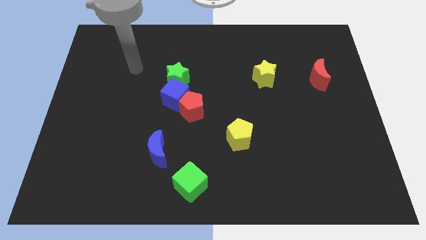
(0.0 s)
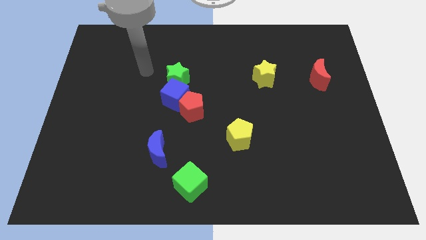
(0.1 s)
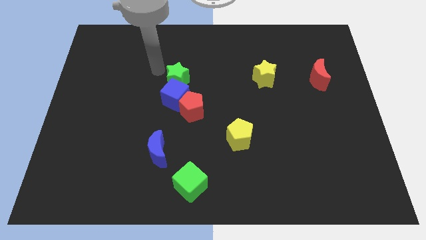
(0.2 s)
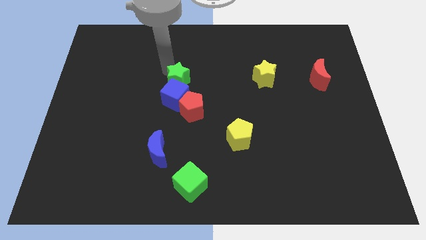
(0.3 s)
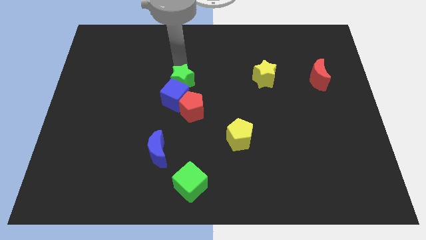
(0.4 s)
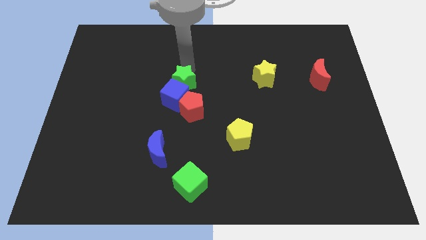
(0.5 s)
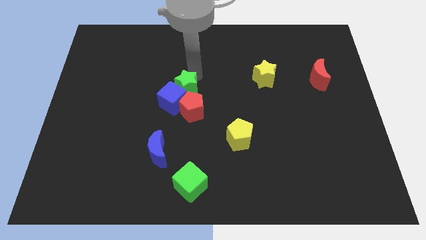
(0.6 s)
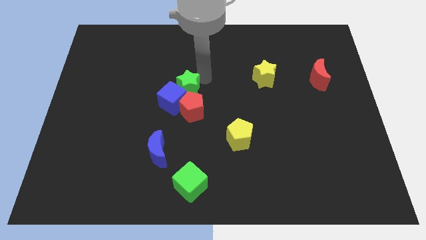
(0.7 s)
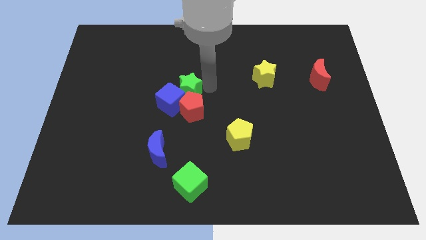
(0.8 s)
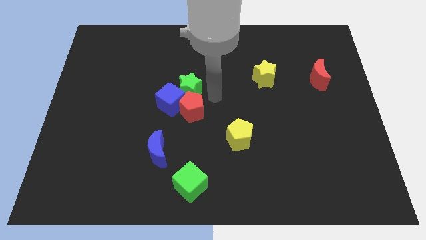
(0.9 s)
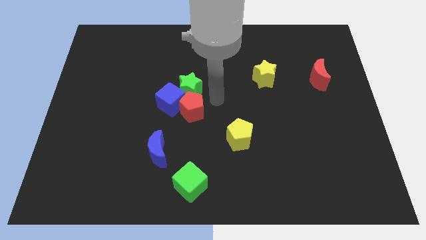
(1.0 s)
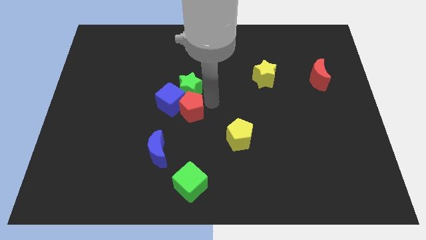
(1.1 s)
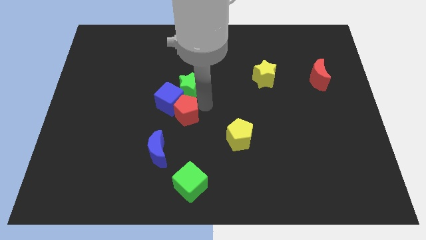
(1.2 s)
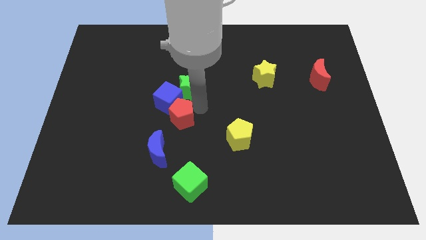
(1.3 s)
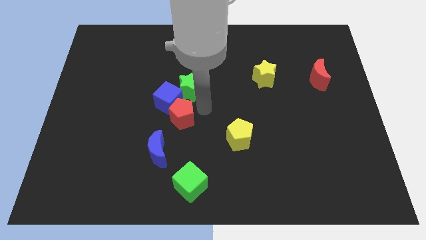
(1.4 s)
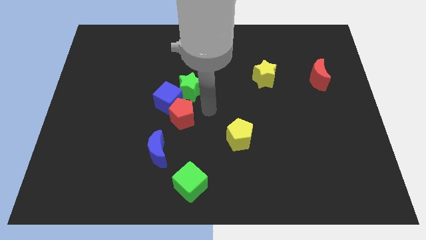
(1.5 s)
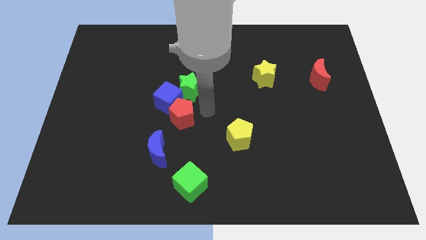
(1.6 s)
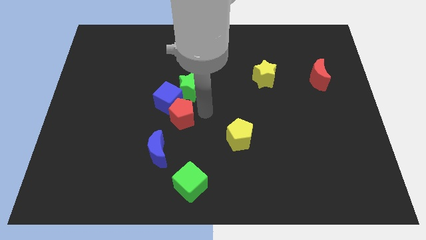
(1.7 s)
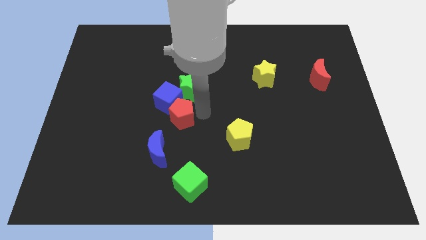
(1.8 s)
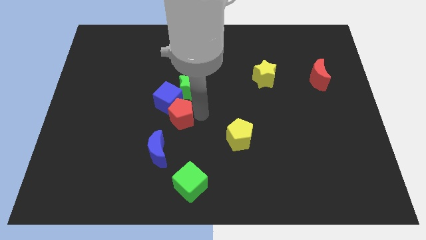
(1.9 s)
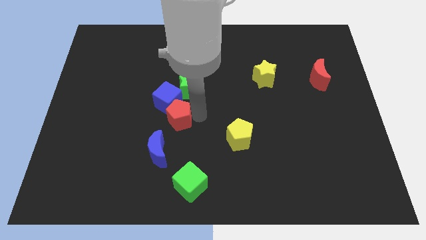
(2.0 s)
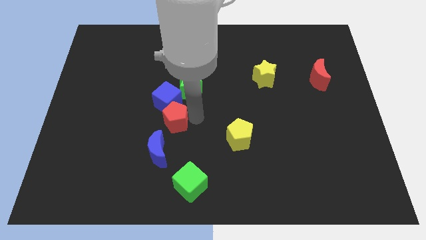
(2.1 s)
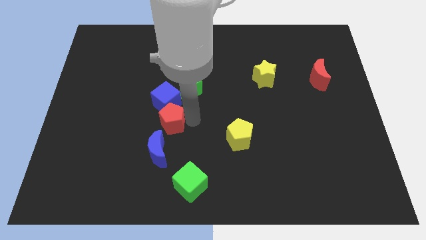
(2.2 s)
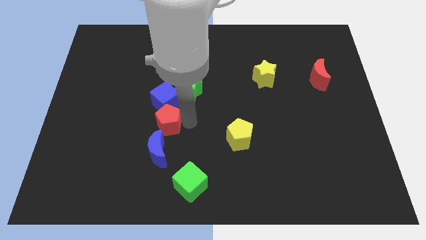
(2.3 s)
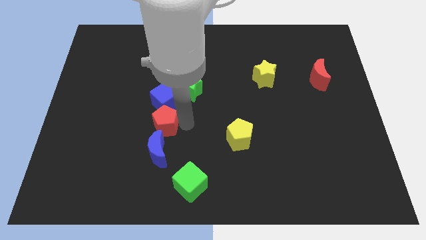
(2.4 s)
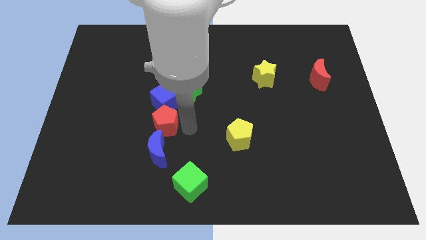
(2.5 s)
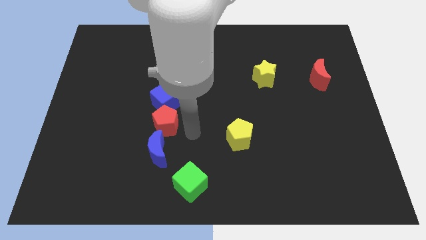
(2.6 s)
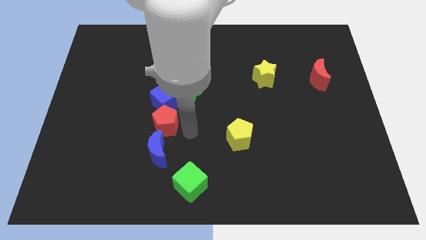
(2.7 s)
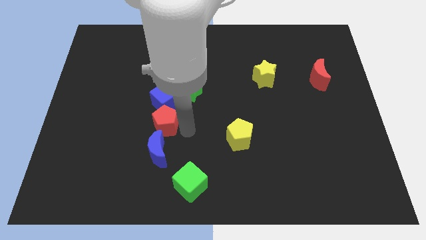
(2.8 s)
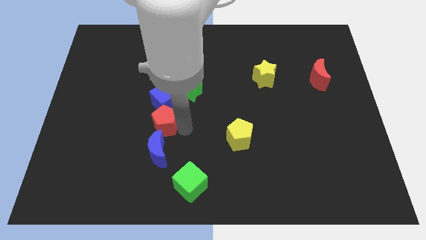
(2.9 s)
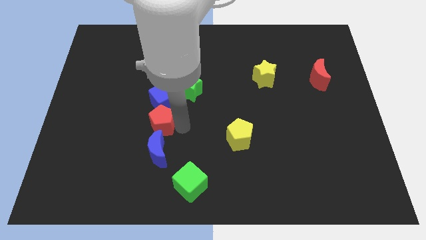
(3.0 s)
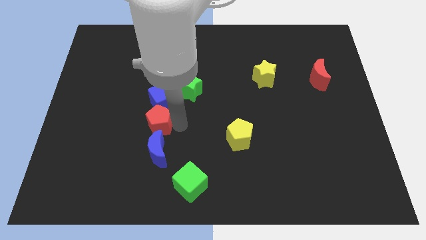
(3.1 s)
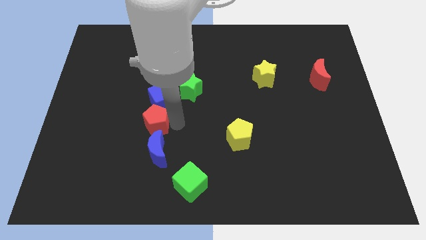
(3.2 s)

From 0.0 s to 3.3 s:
slide the red pentagon to the left somewhat

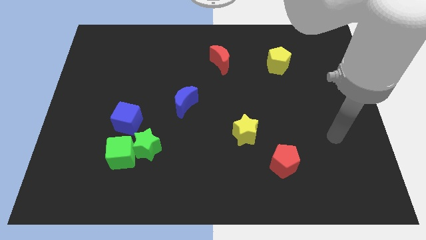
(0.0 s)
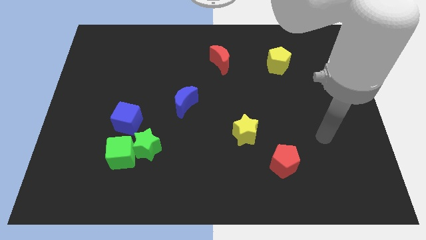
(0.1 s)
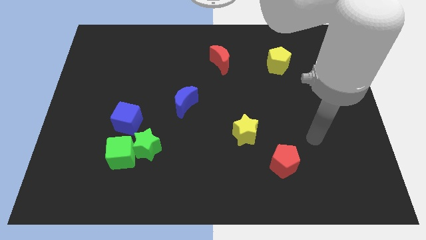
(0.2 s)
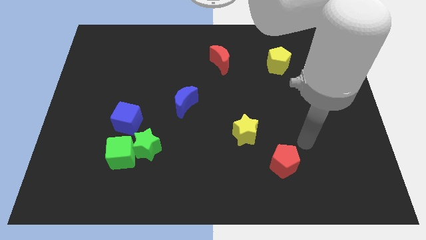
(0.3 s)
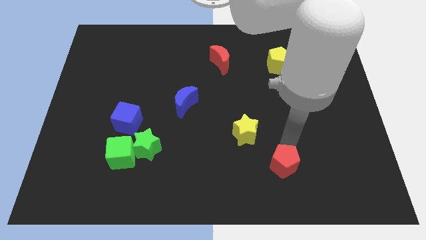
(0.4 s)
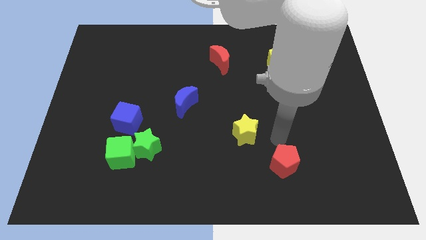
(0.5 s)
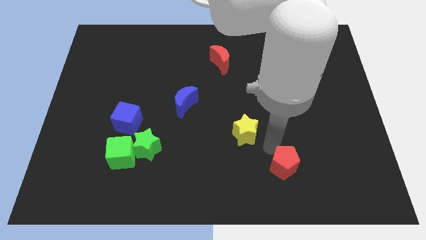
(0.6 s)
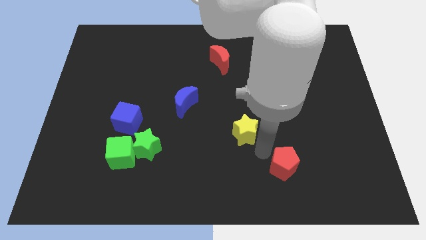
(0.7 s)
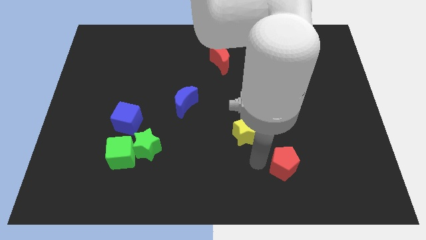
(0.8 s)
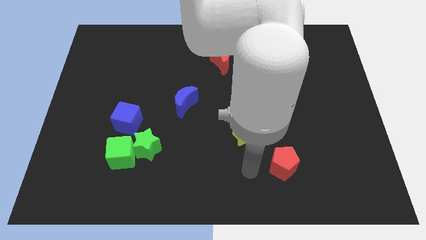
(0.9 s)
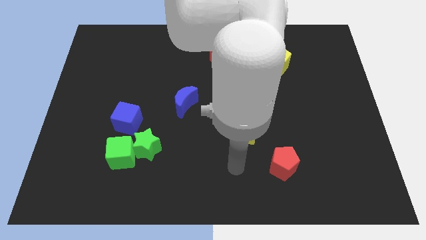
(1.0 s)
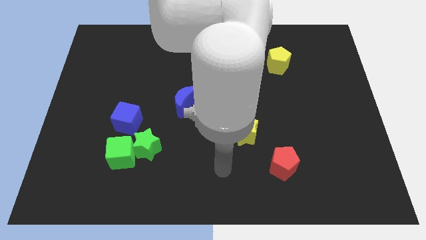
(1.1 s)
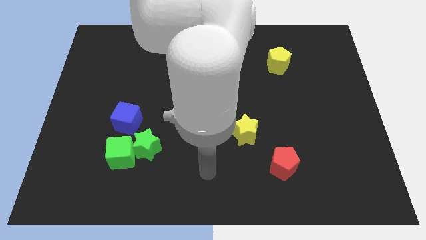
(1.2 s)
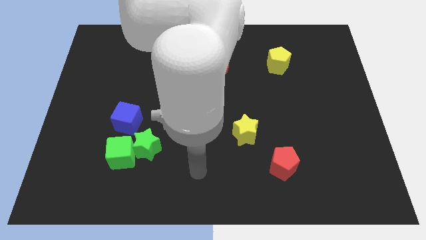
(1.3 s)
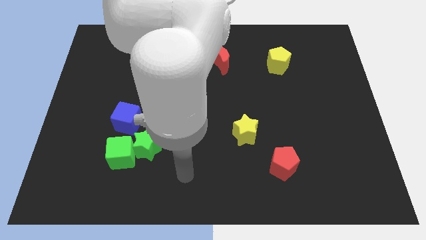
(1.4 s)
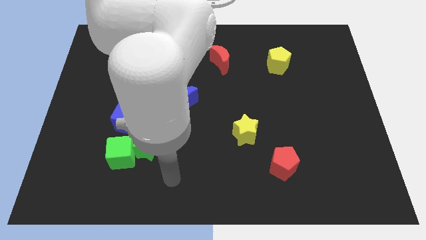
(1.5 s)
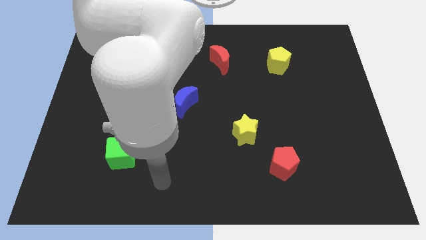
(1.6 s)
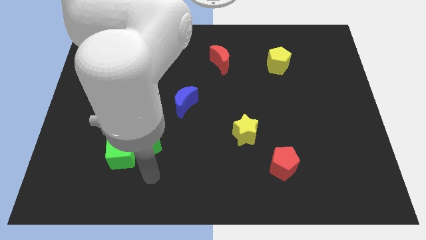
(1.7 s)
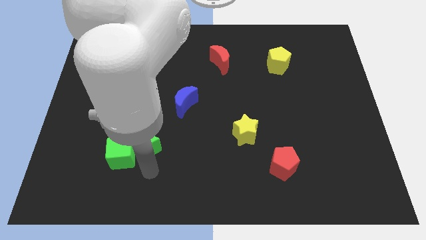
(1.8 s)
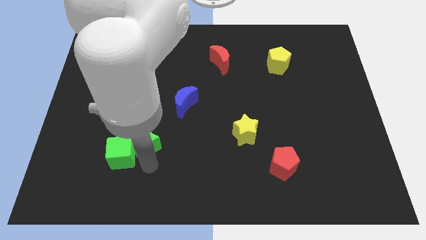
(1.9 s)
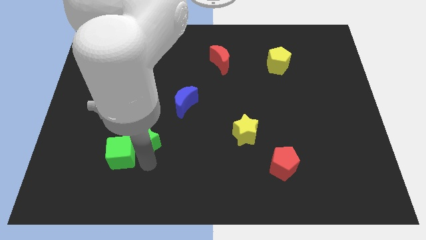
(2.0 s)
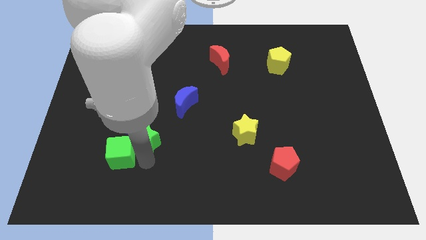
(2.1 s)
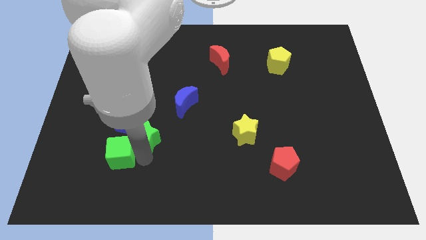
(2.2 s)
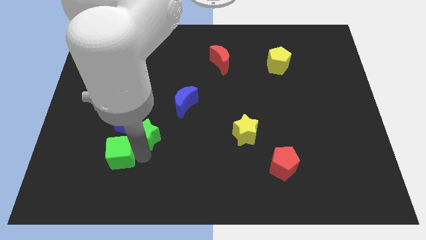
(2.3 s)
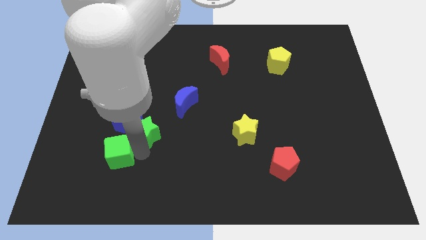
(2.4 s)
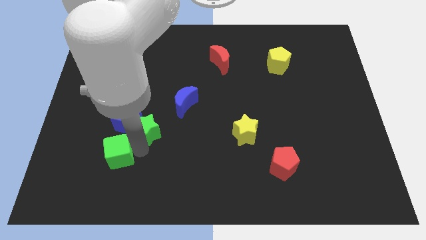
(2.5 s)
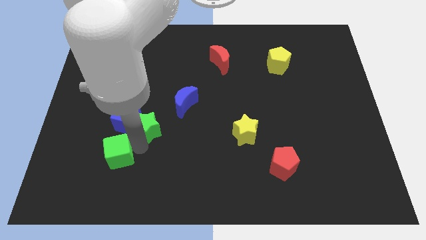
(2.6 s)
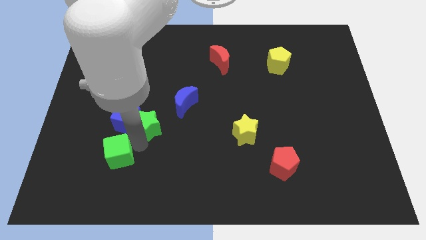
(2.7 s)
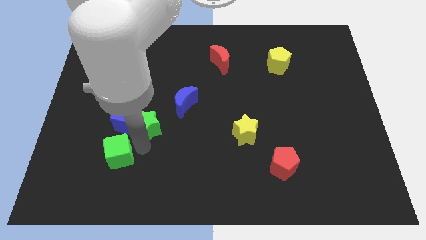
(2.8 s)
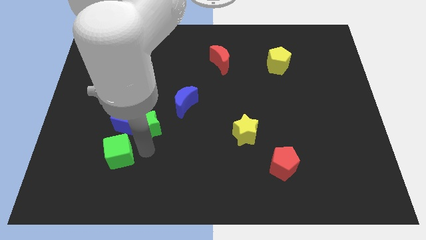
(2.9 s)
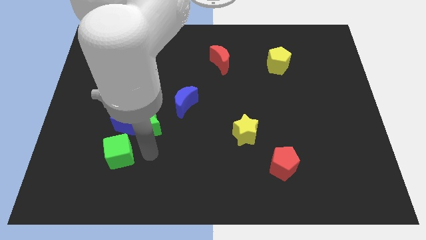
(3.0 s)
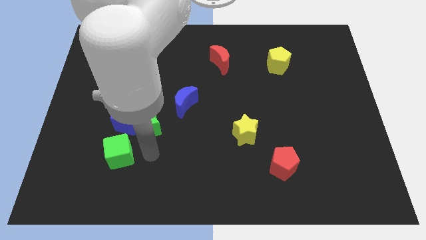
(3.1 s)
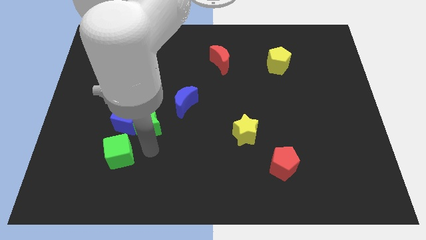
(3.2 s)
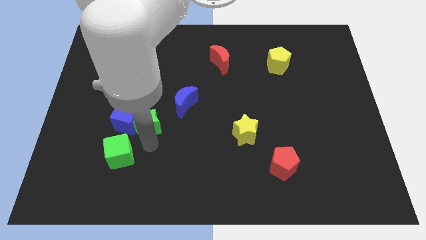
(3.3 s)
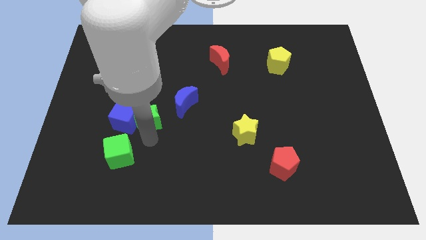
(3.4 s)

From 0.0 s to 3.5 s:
move the green star upwards a little bit

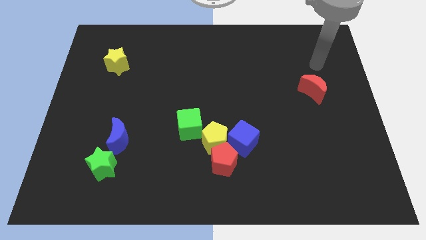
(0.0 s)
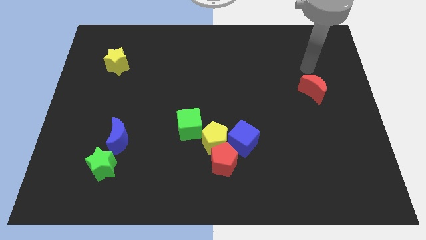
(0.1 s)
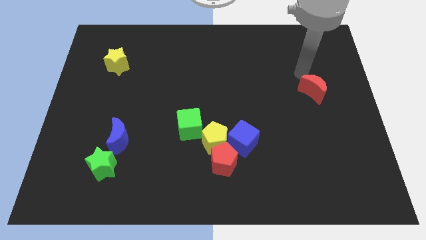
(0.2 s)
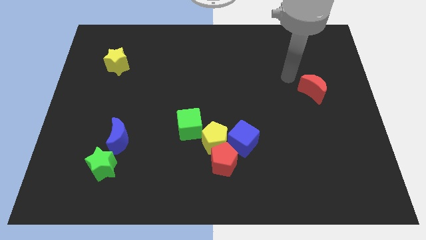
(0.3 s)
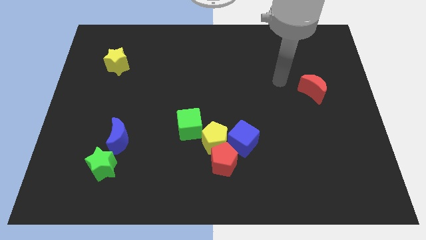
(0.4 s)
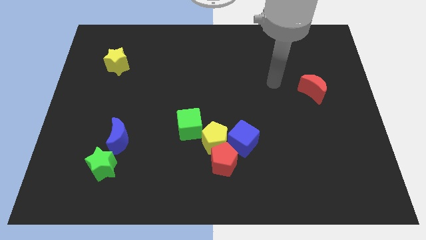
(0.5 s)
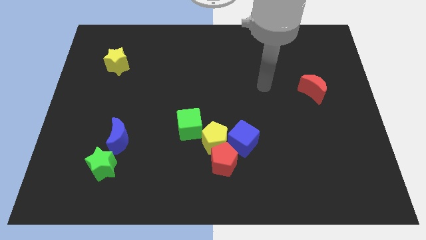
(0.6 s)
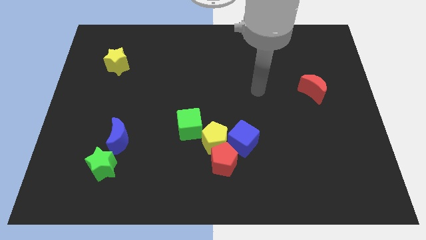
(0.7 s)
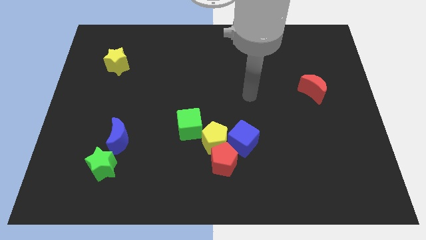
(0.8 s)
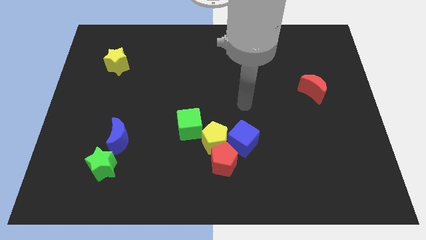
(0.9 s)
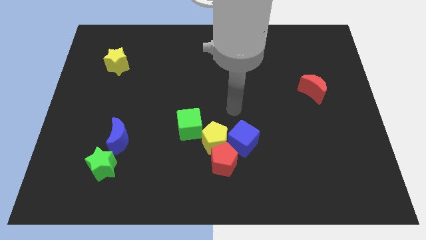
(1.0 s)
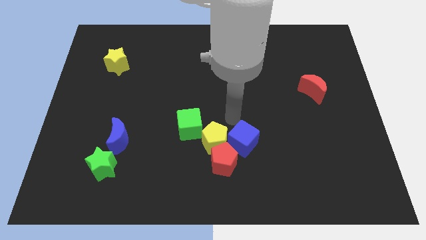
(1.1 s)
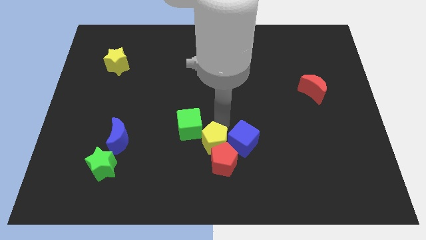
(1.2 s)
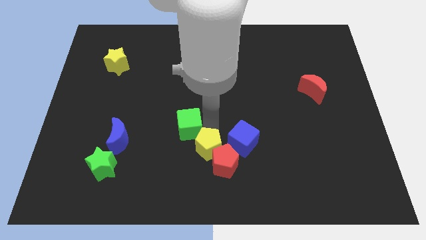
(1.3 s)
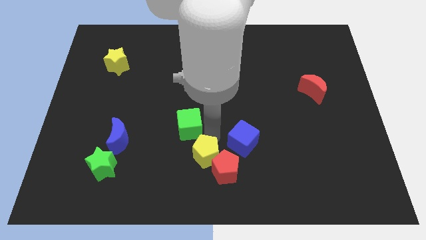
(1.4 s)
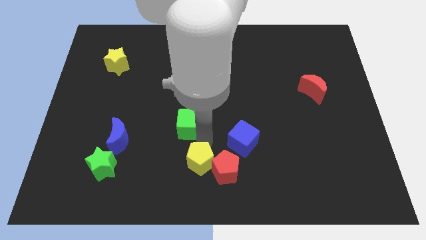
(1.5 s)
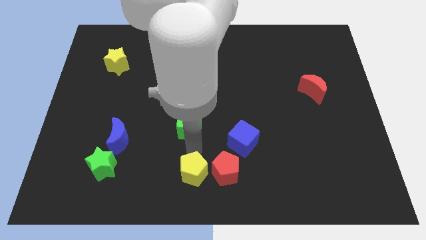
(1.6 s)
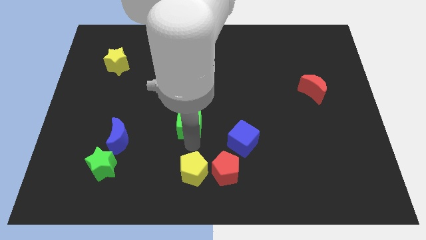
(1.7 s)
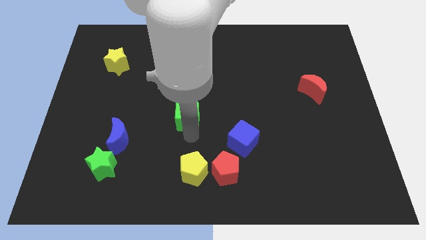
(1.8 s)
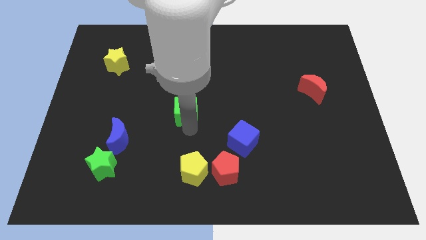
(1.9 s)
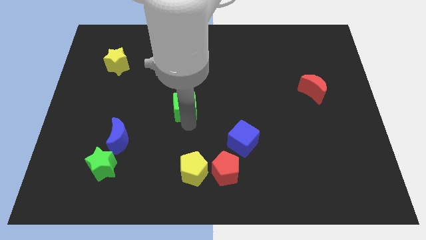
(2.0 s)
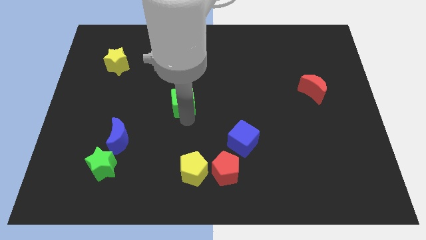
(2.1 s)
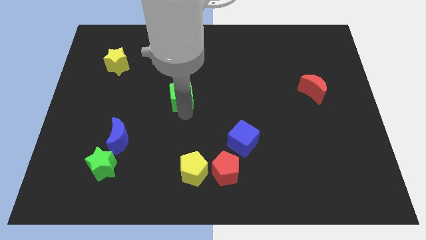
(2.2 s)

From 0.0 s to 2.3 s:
move the green cube up somewhat
